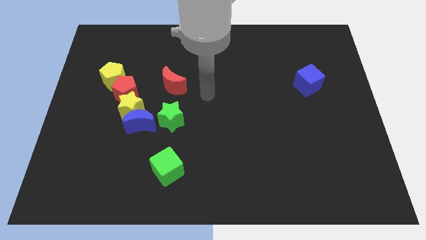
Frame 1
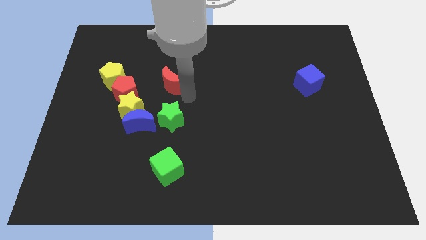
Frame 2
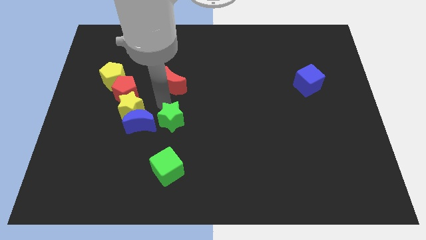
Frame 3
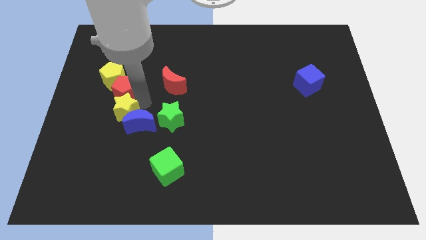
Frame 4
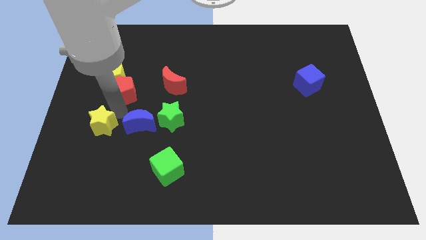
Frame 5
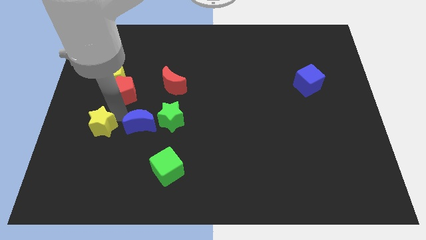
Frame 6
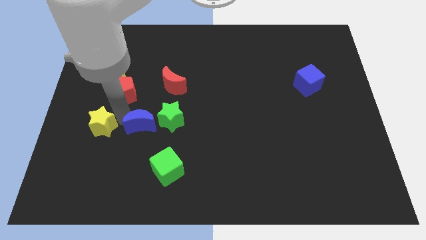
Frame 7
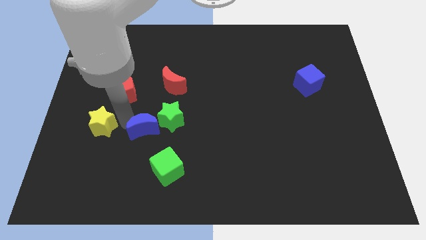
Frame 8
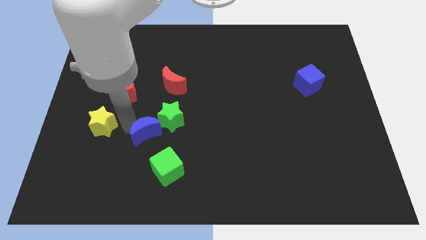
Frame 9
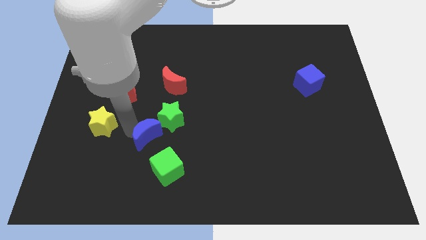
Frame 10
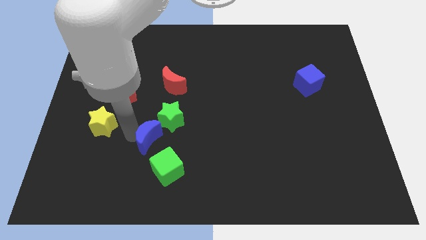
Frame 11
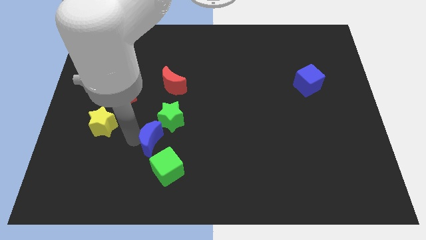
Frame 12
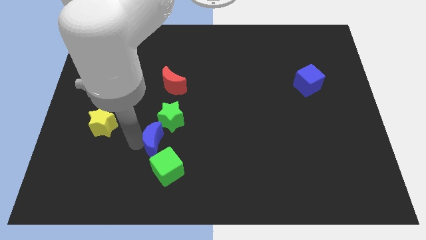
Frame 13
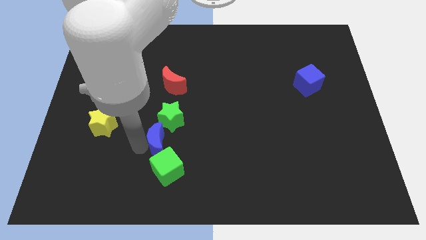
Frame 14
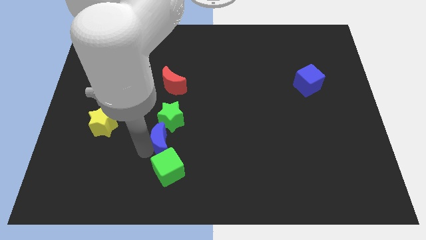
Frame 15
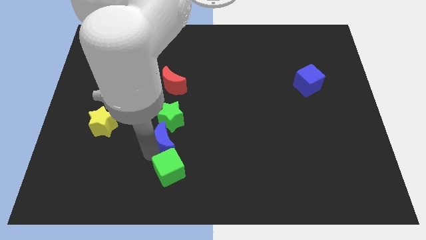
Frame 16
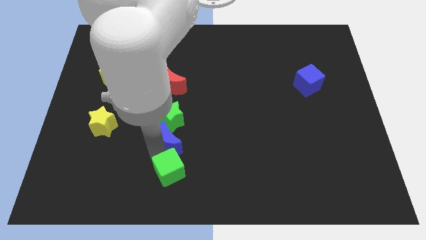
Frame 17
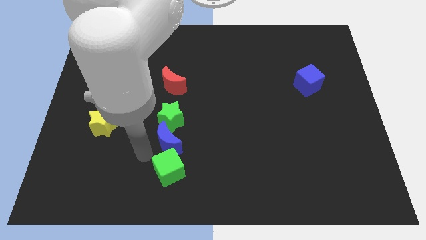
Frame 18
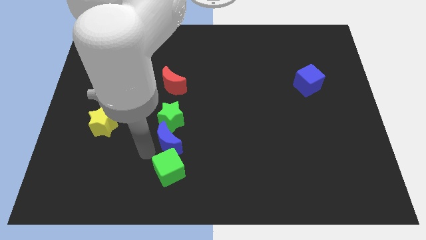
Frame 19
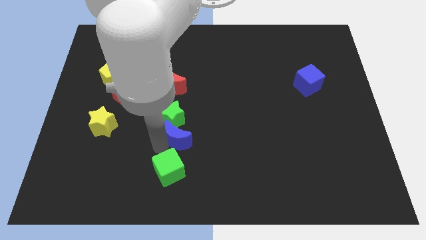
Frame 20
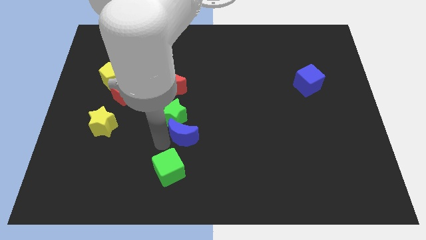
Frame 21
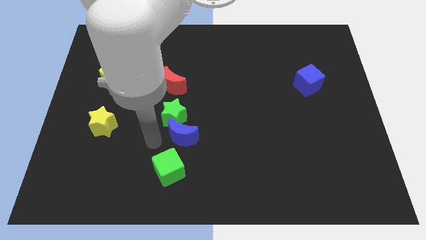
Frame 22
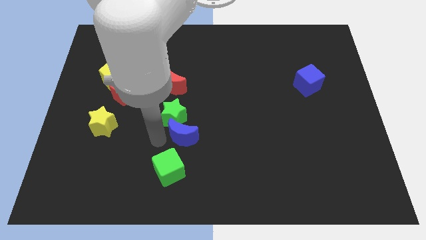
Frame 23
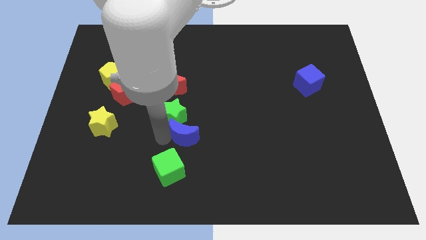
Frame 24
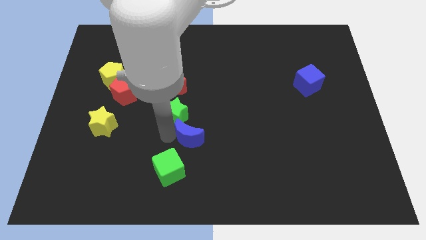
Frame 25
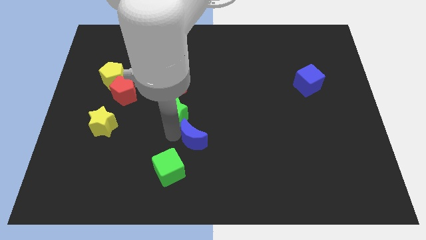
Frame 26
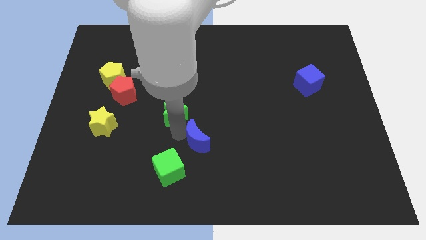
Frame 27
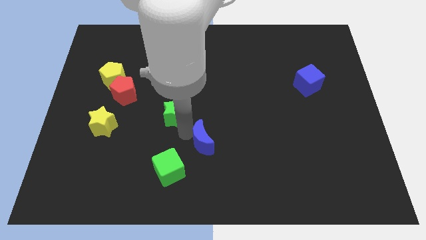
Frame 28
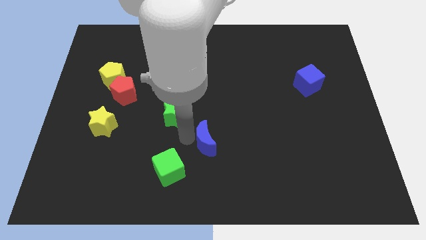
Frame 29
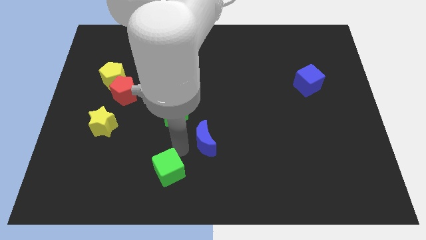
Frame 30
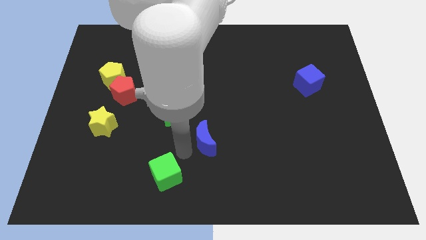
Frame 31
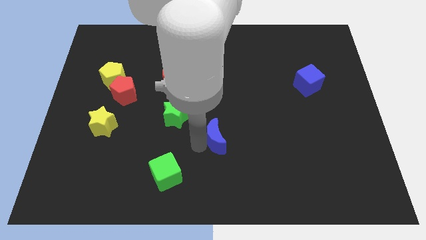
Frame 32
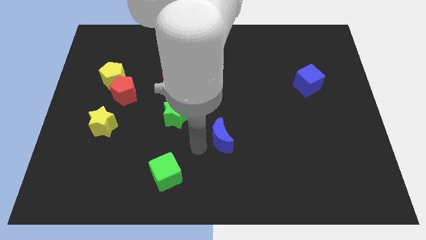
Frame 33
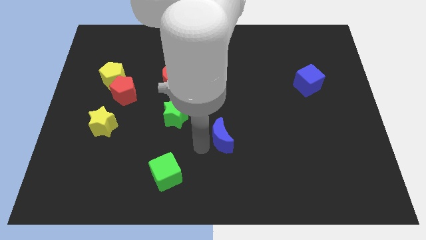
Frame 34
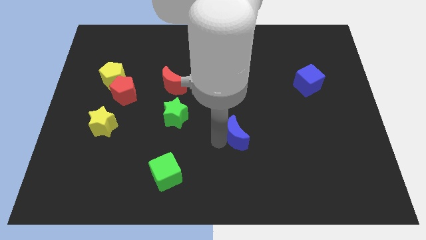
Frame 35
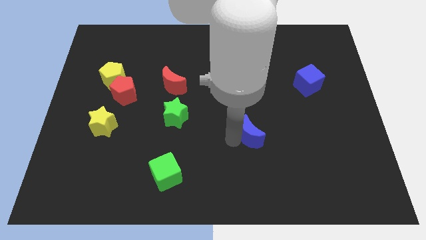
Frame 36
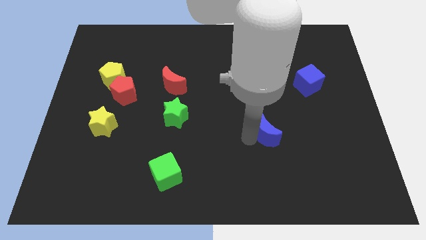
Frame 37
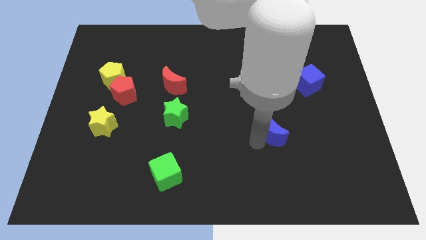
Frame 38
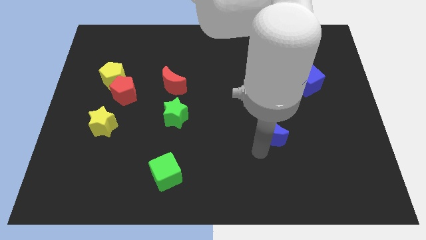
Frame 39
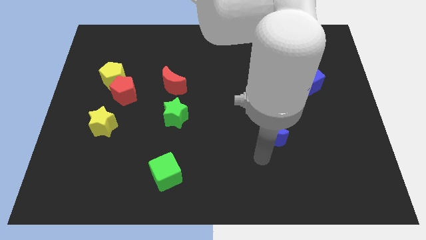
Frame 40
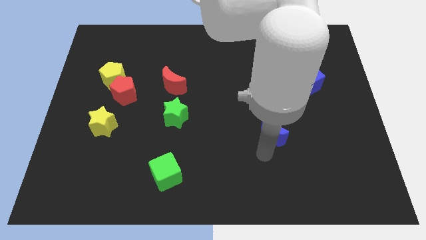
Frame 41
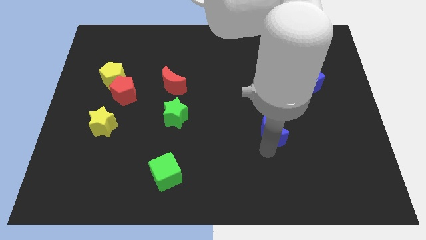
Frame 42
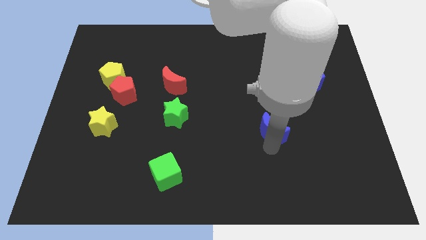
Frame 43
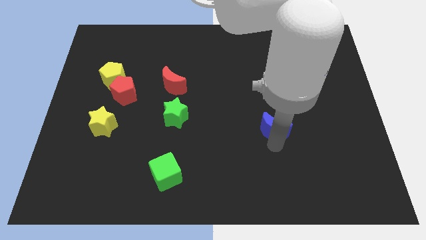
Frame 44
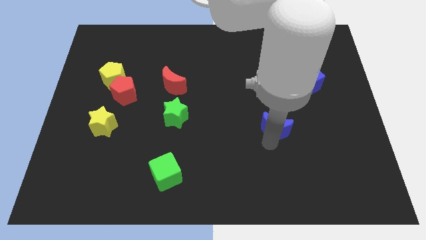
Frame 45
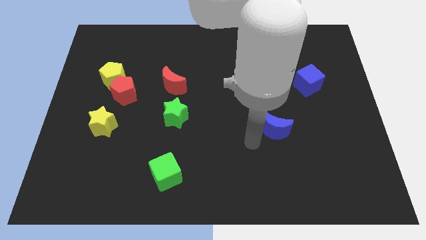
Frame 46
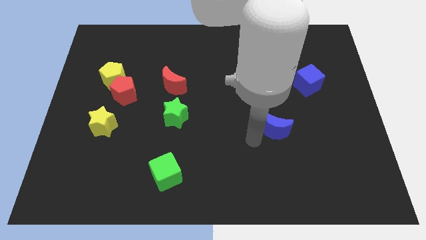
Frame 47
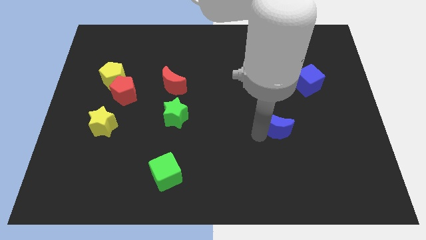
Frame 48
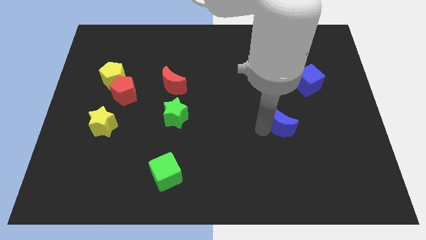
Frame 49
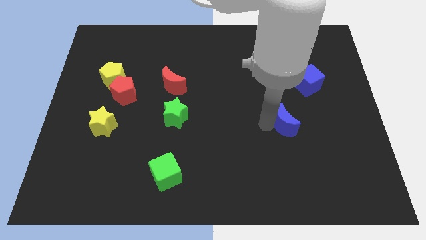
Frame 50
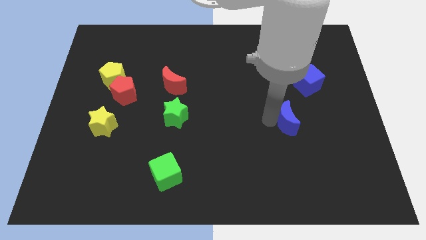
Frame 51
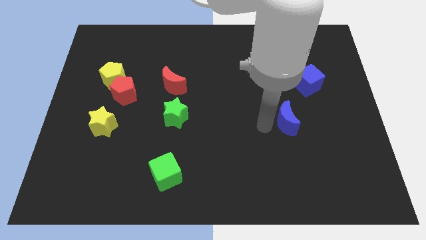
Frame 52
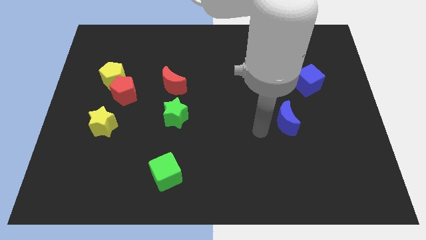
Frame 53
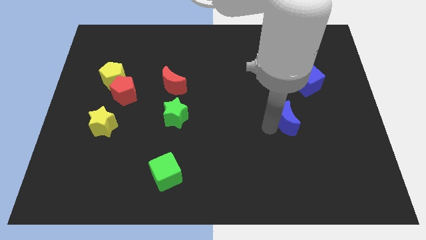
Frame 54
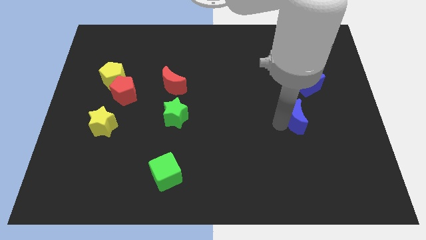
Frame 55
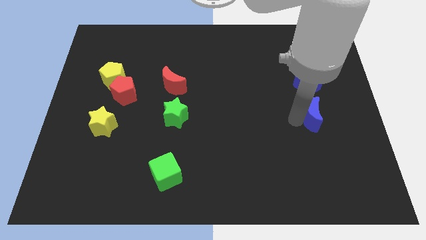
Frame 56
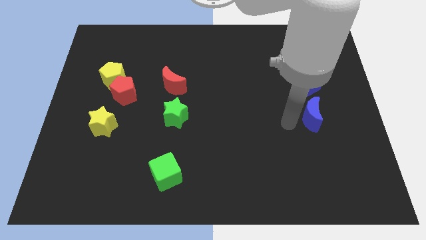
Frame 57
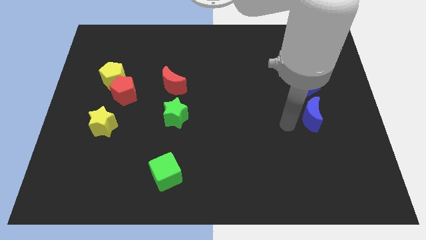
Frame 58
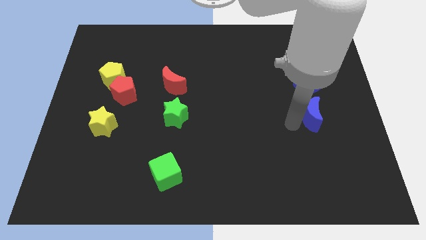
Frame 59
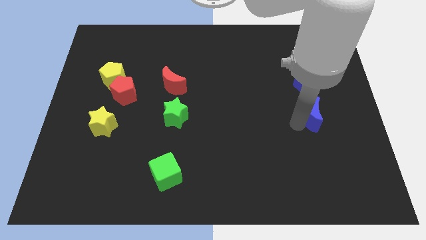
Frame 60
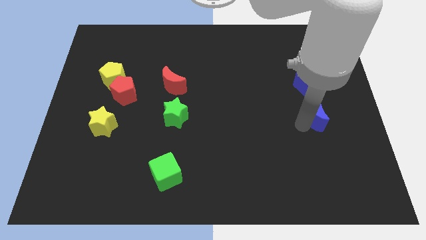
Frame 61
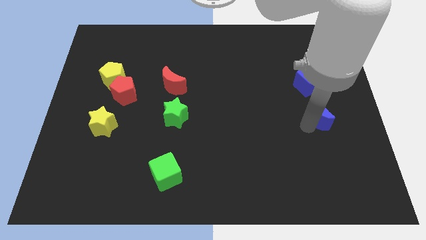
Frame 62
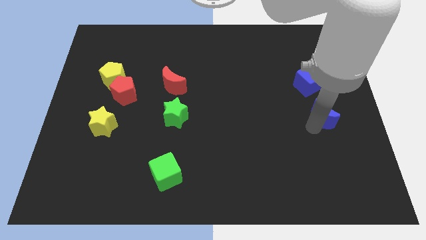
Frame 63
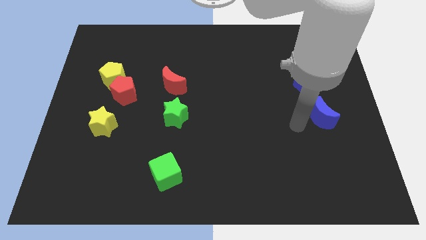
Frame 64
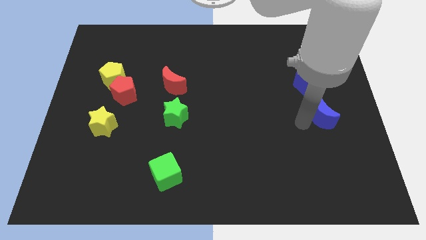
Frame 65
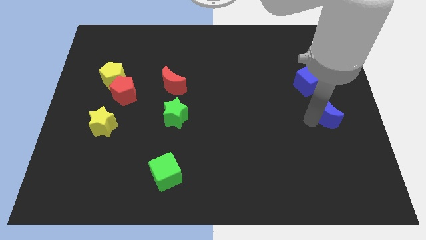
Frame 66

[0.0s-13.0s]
slide the blue moon to the center right
